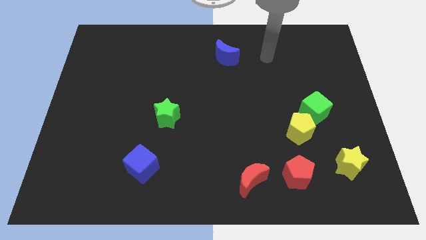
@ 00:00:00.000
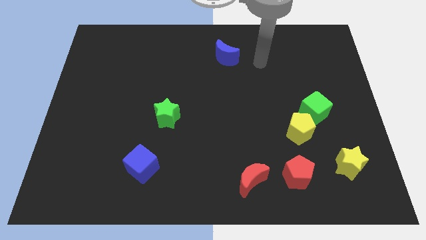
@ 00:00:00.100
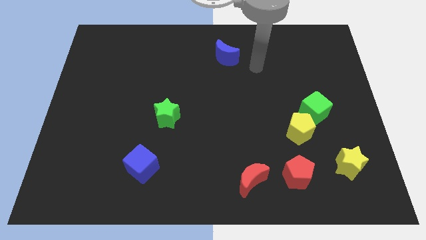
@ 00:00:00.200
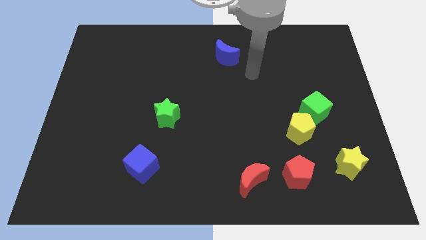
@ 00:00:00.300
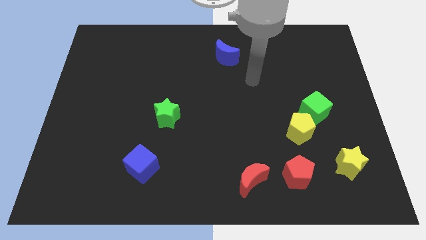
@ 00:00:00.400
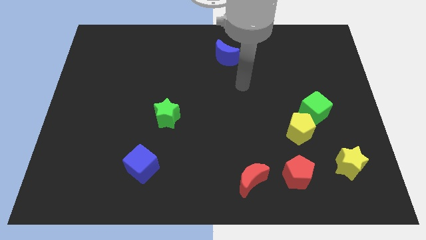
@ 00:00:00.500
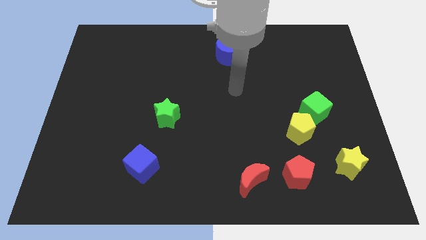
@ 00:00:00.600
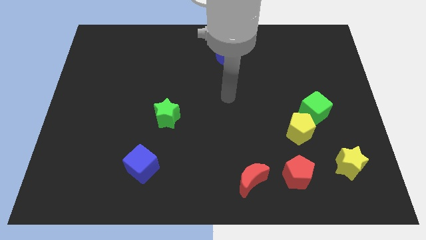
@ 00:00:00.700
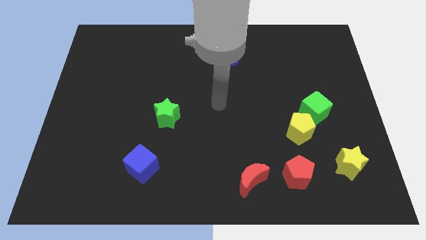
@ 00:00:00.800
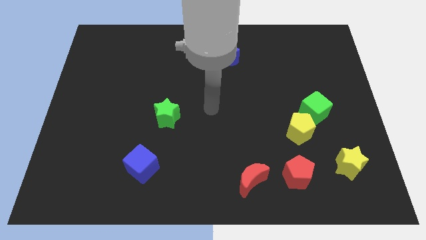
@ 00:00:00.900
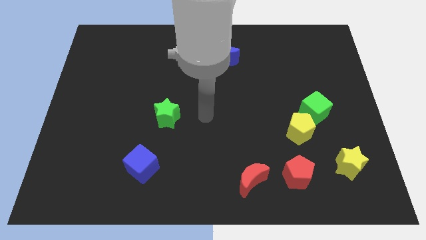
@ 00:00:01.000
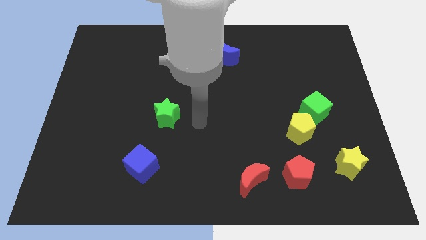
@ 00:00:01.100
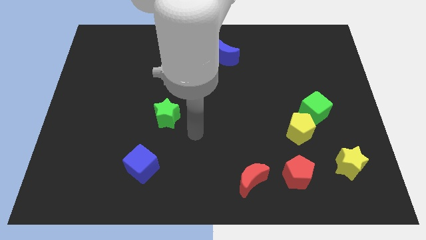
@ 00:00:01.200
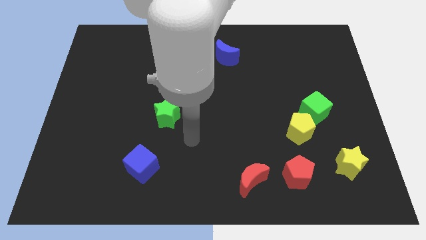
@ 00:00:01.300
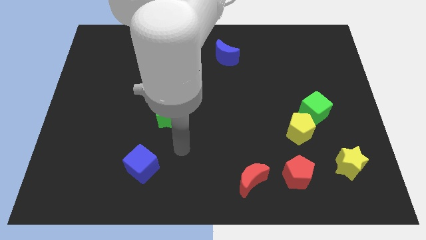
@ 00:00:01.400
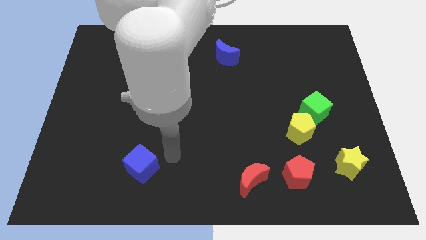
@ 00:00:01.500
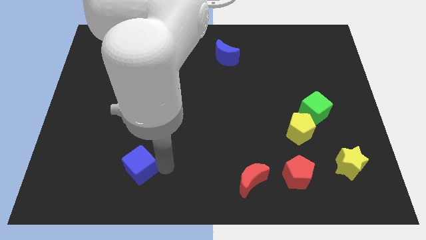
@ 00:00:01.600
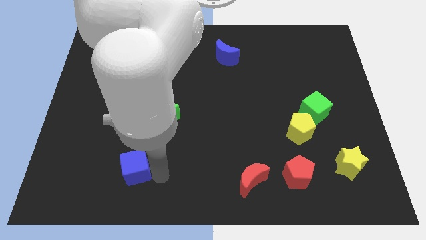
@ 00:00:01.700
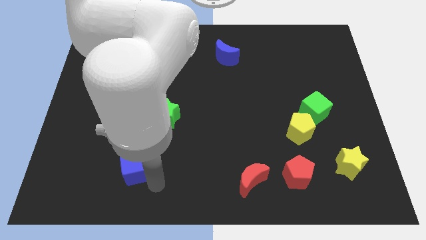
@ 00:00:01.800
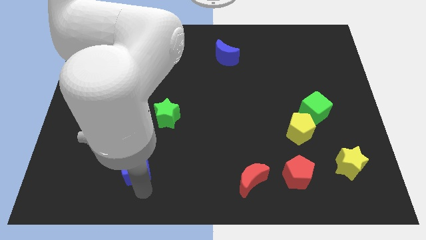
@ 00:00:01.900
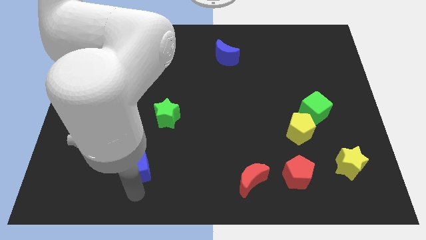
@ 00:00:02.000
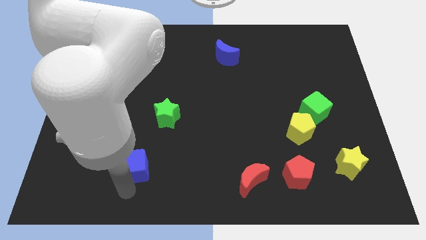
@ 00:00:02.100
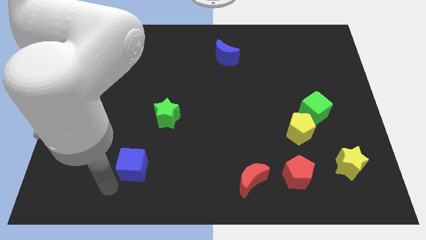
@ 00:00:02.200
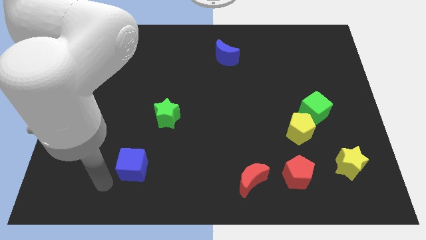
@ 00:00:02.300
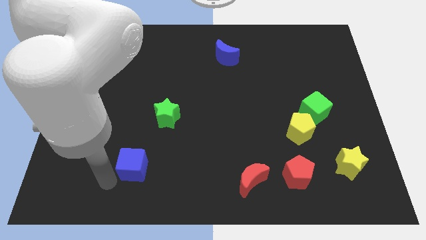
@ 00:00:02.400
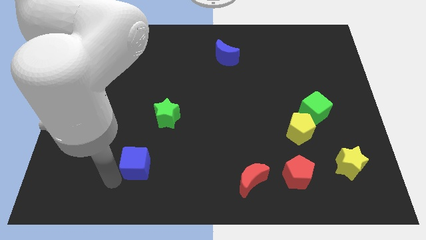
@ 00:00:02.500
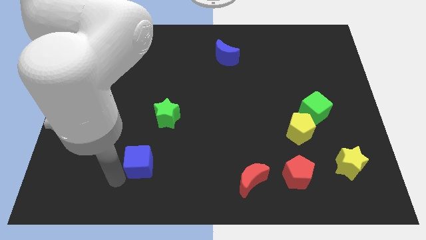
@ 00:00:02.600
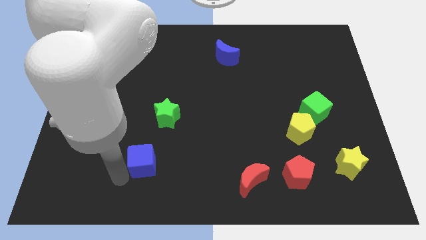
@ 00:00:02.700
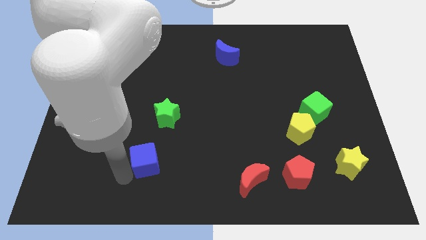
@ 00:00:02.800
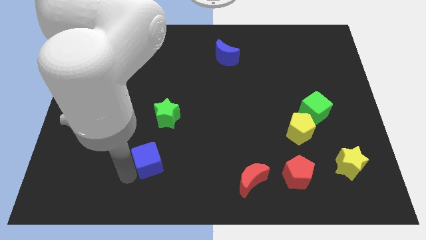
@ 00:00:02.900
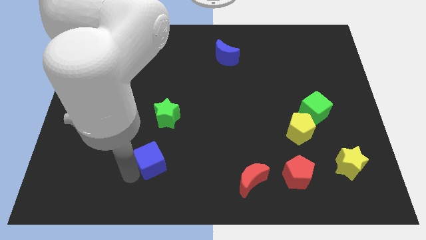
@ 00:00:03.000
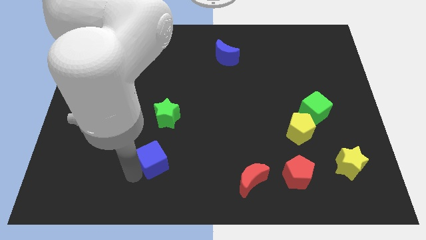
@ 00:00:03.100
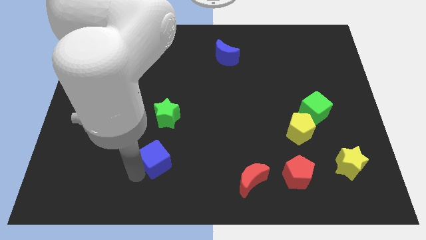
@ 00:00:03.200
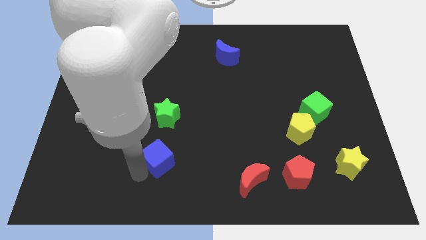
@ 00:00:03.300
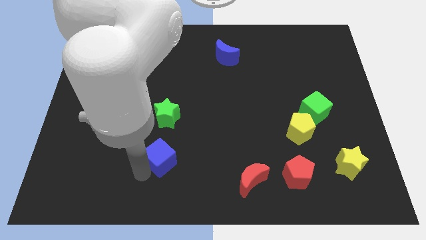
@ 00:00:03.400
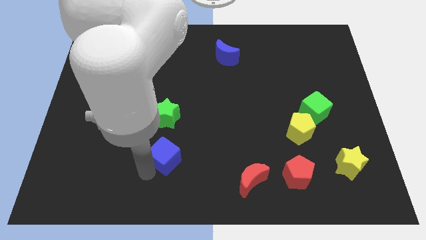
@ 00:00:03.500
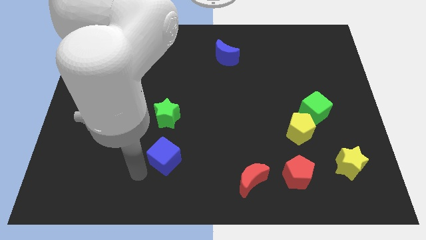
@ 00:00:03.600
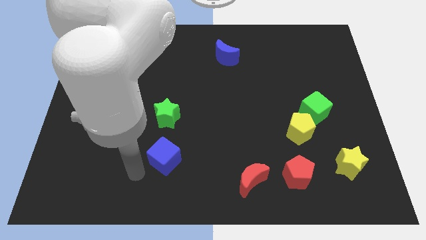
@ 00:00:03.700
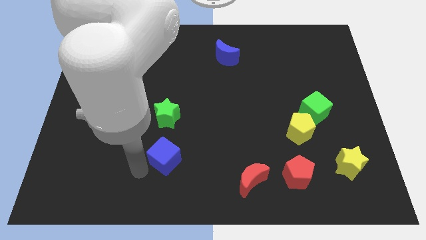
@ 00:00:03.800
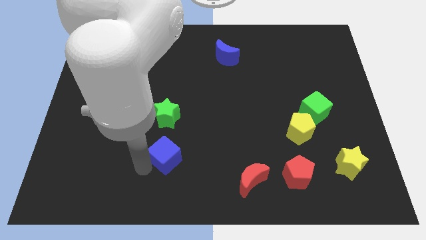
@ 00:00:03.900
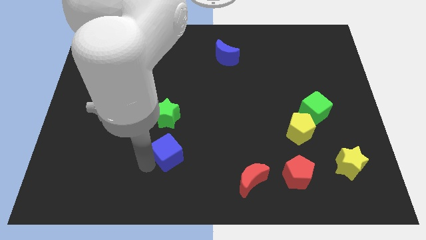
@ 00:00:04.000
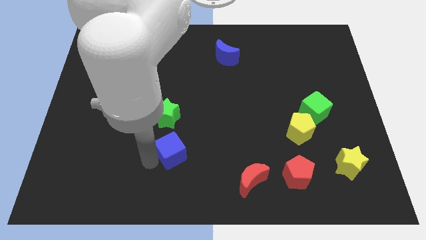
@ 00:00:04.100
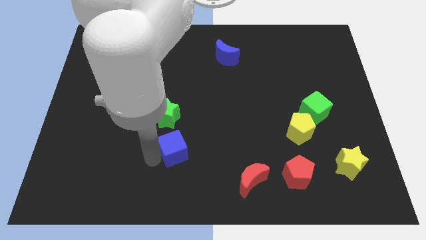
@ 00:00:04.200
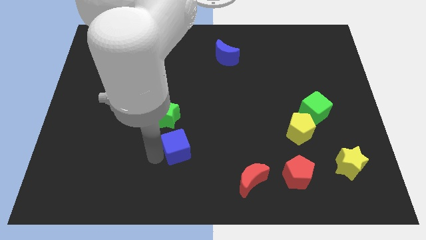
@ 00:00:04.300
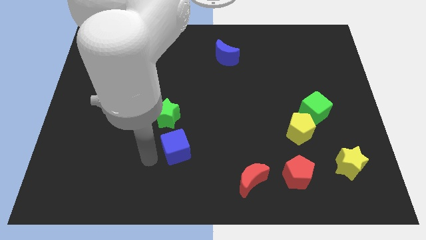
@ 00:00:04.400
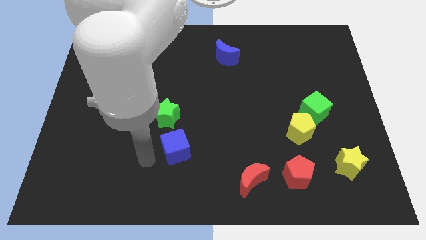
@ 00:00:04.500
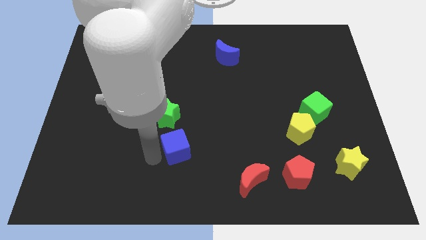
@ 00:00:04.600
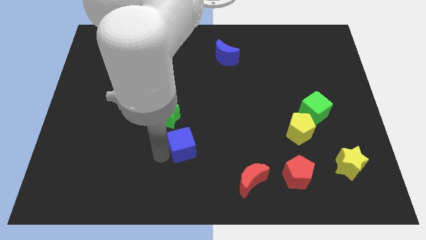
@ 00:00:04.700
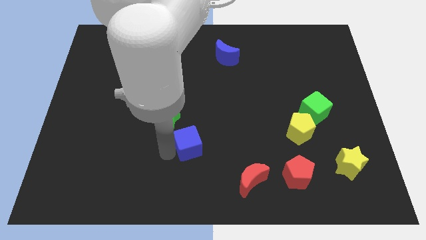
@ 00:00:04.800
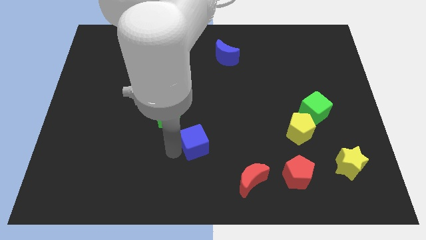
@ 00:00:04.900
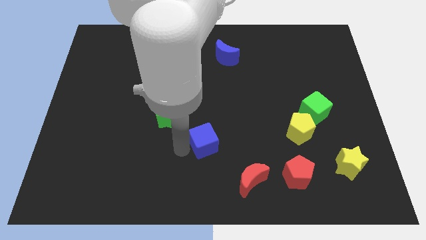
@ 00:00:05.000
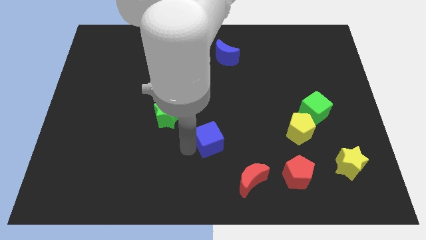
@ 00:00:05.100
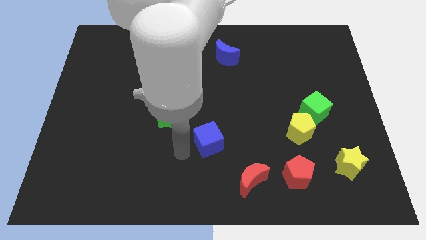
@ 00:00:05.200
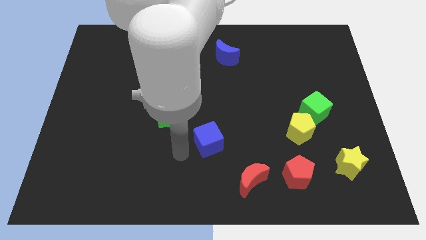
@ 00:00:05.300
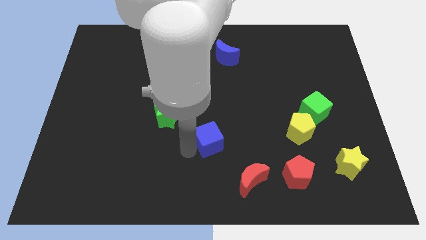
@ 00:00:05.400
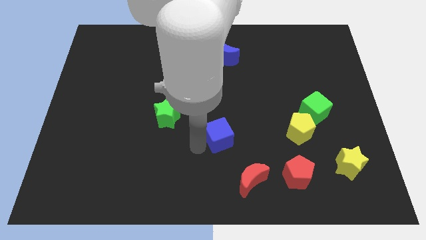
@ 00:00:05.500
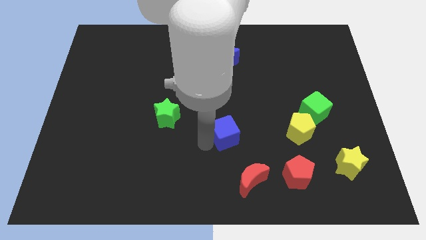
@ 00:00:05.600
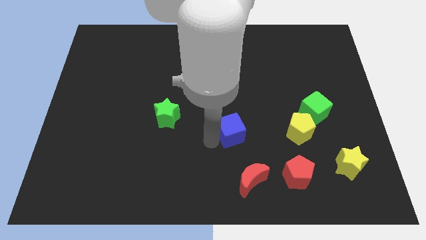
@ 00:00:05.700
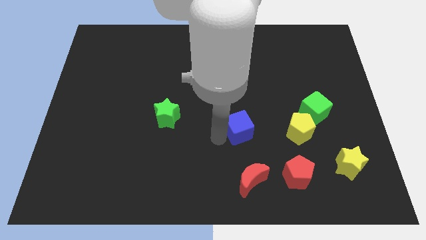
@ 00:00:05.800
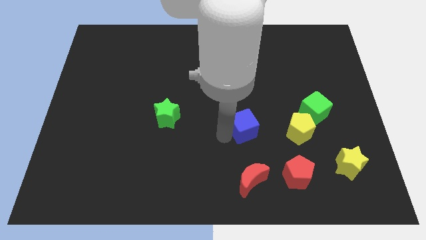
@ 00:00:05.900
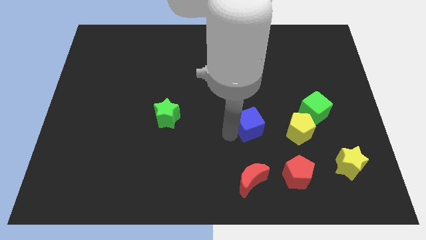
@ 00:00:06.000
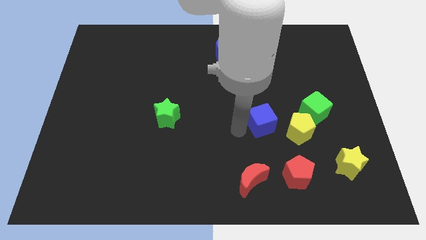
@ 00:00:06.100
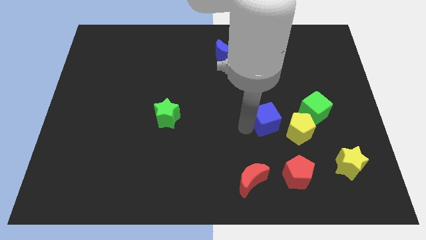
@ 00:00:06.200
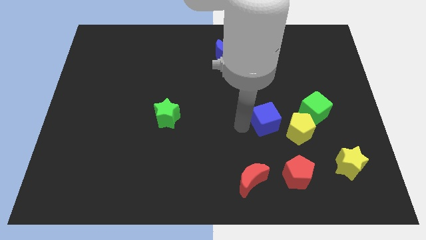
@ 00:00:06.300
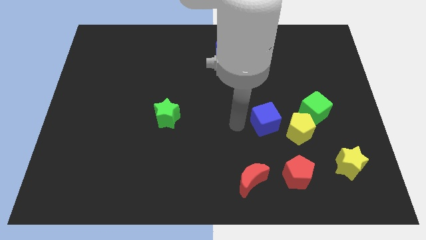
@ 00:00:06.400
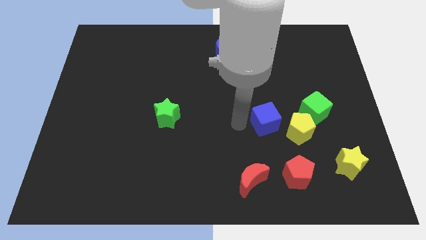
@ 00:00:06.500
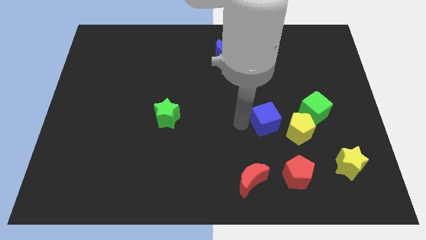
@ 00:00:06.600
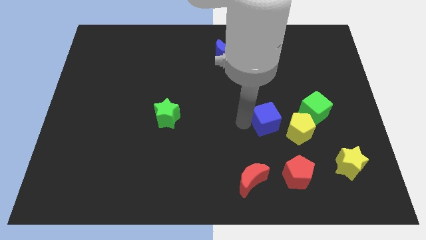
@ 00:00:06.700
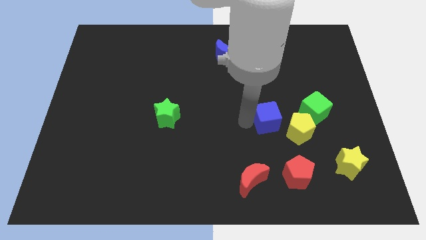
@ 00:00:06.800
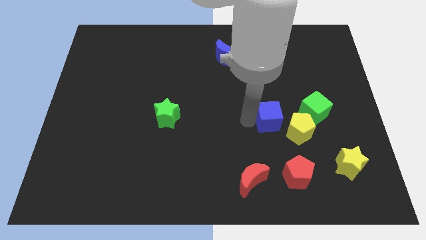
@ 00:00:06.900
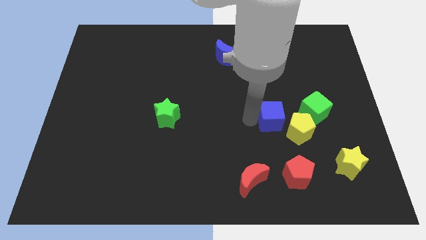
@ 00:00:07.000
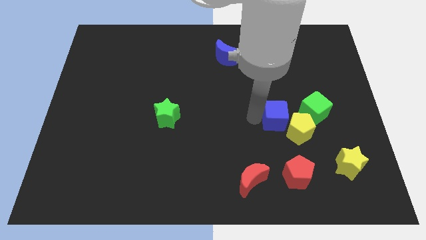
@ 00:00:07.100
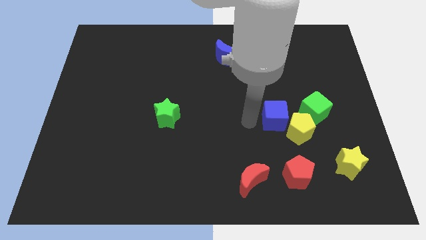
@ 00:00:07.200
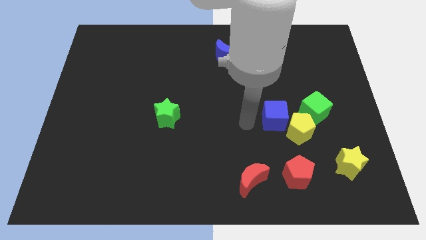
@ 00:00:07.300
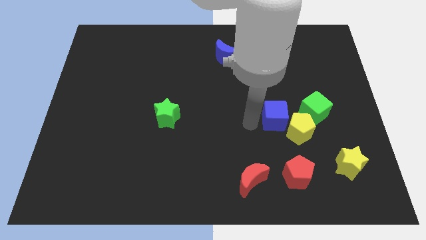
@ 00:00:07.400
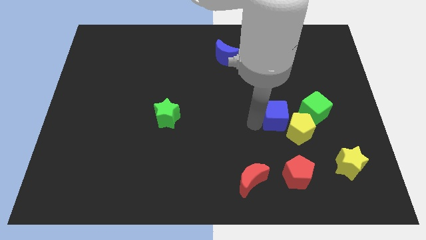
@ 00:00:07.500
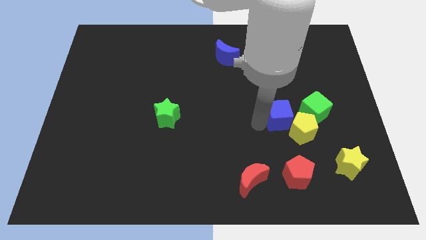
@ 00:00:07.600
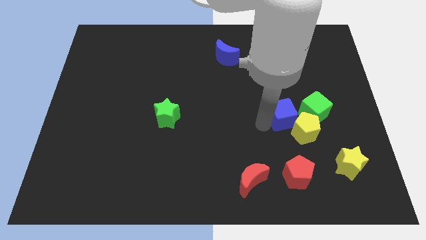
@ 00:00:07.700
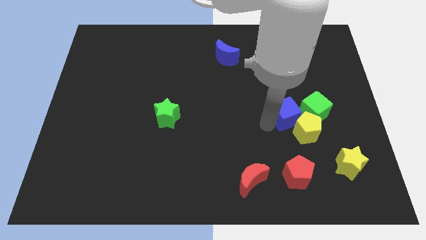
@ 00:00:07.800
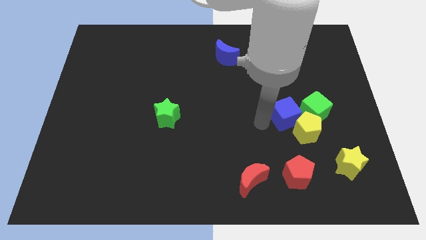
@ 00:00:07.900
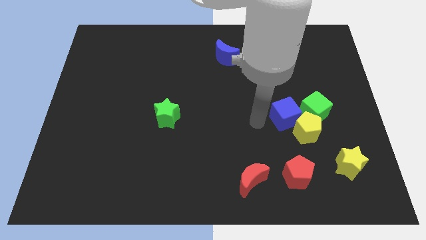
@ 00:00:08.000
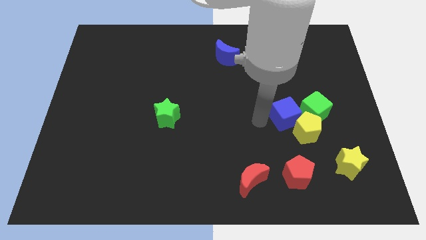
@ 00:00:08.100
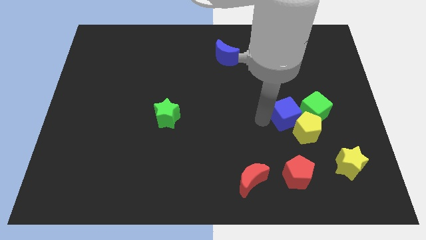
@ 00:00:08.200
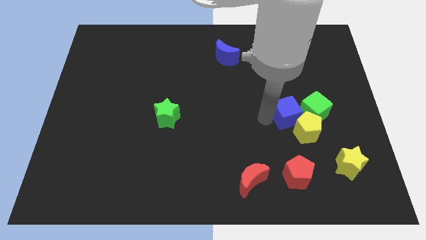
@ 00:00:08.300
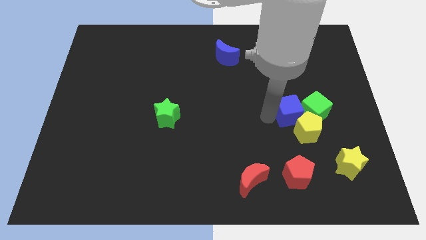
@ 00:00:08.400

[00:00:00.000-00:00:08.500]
put the blue cube close to the green cube
